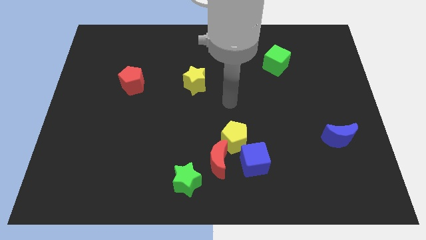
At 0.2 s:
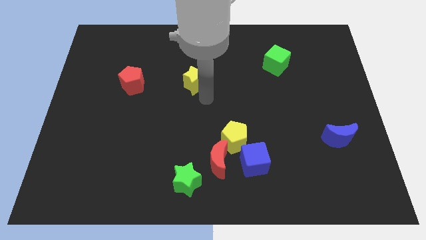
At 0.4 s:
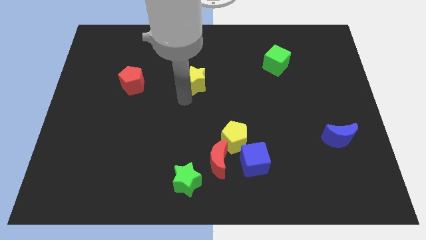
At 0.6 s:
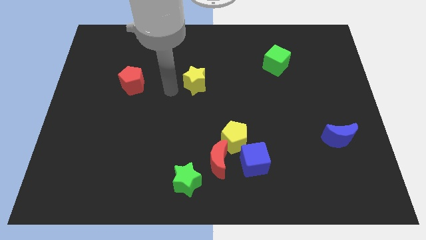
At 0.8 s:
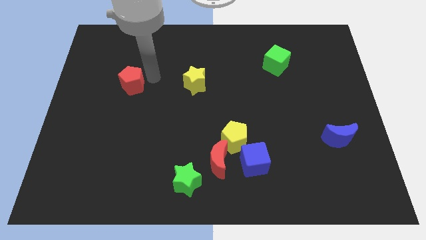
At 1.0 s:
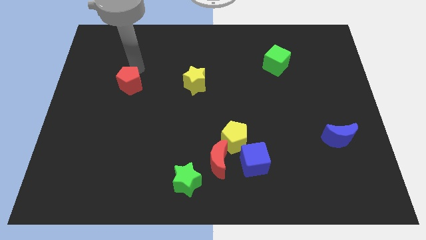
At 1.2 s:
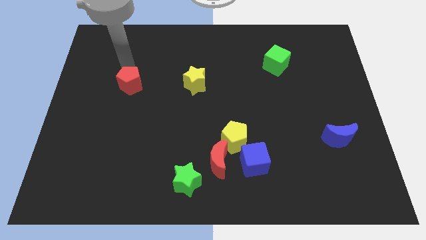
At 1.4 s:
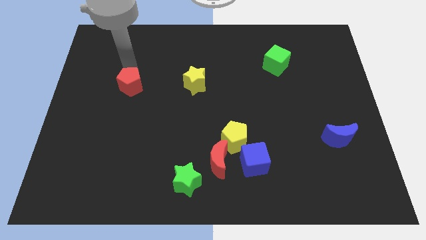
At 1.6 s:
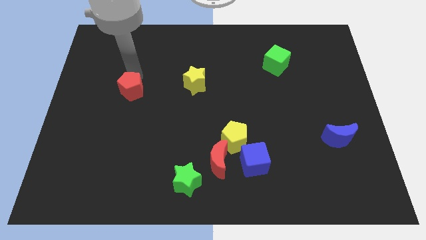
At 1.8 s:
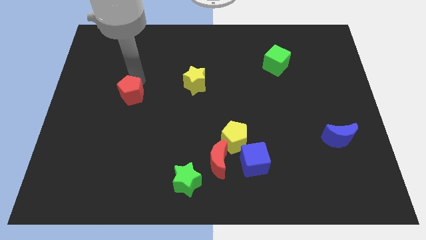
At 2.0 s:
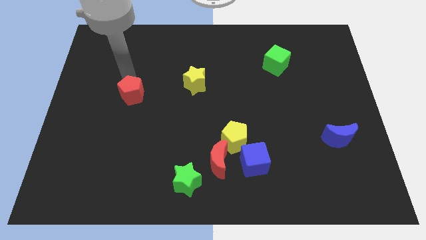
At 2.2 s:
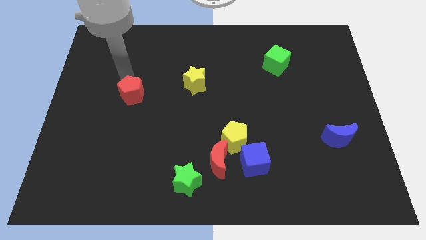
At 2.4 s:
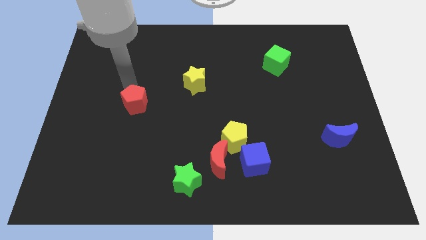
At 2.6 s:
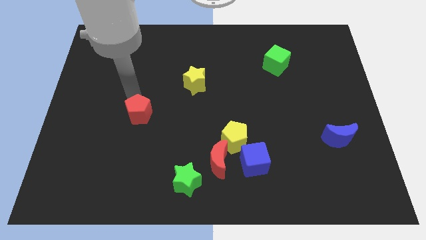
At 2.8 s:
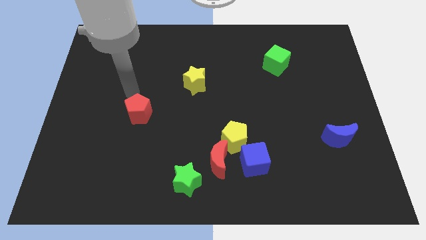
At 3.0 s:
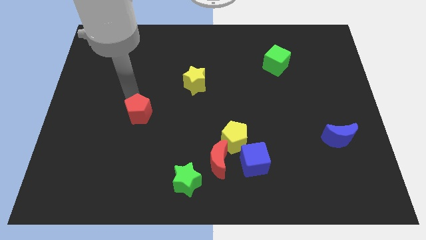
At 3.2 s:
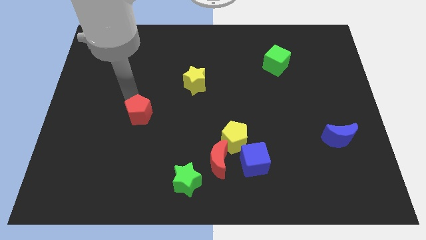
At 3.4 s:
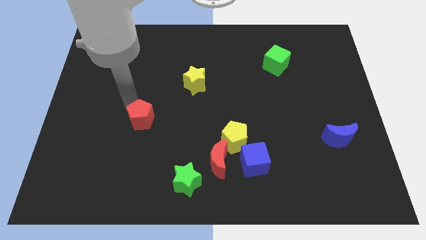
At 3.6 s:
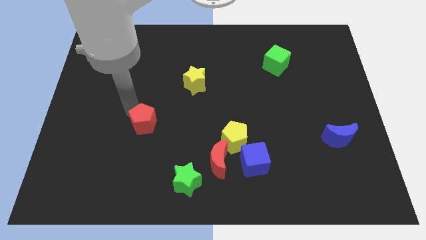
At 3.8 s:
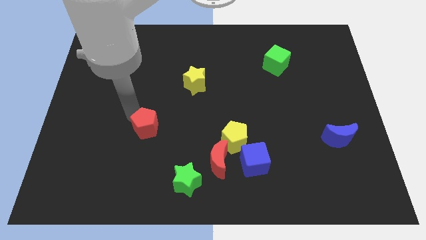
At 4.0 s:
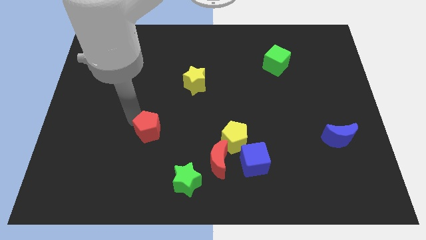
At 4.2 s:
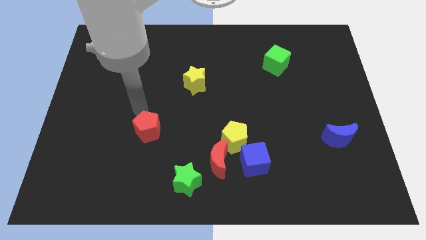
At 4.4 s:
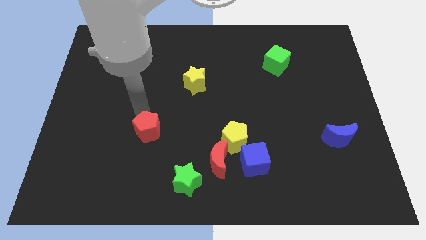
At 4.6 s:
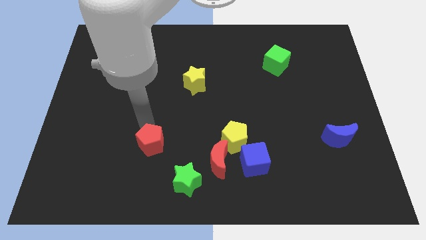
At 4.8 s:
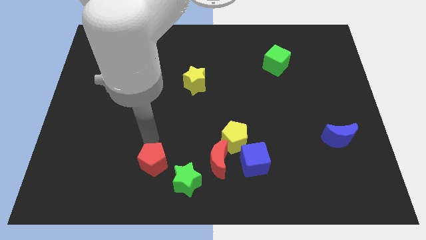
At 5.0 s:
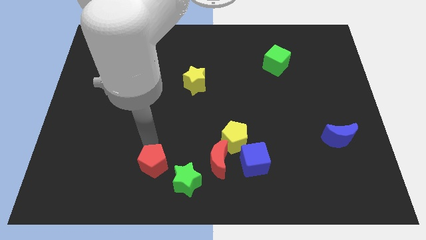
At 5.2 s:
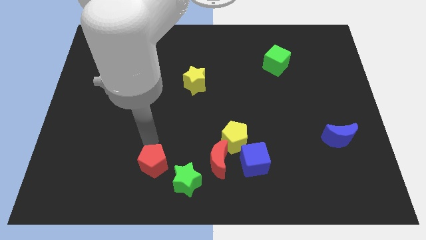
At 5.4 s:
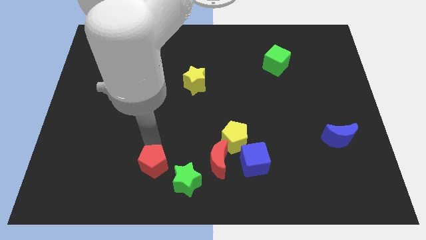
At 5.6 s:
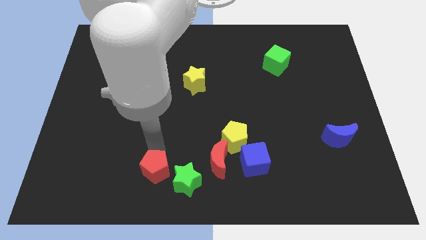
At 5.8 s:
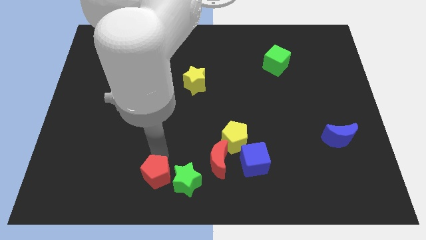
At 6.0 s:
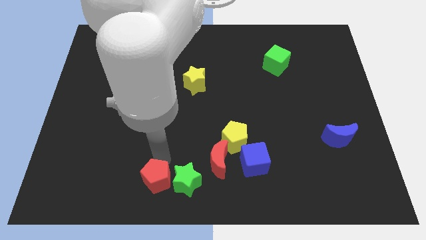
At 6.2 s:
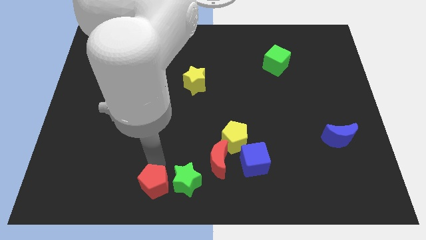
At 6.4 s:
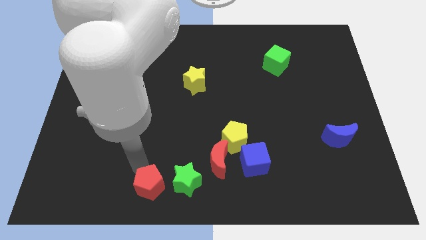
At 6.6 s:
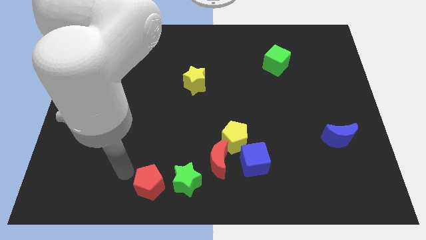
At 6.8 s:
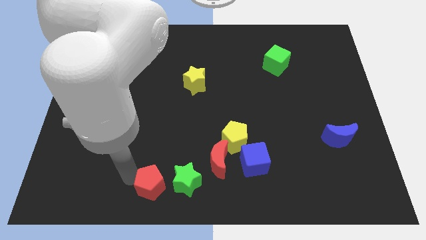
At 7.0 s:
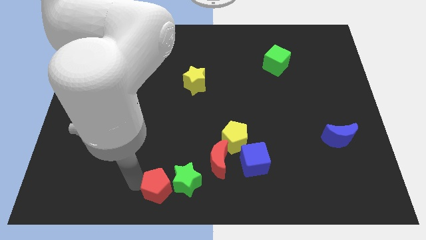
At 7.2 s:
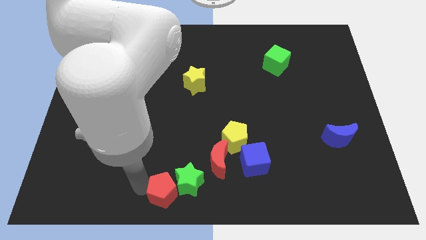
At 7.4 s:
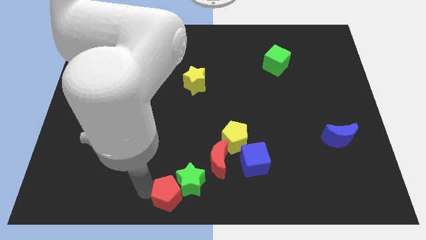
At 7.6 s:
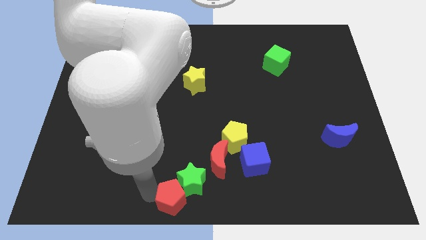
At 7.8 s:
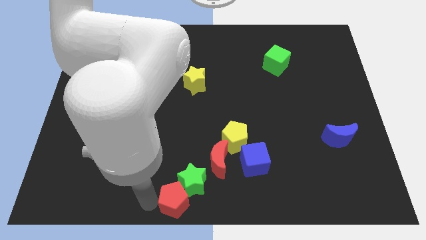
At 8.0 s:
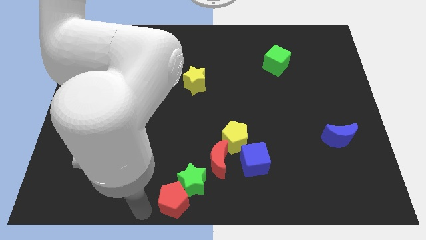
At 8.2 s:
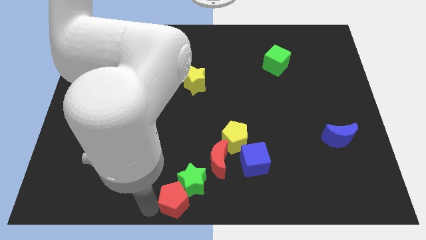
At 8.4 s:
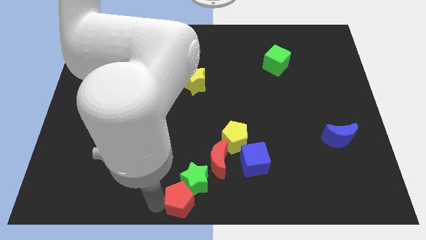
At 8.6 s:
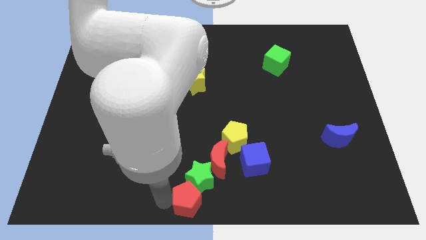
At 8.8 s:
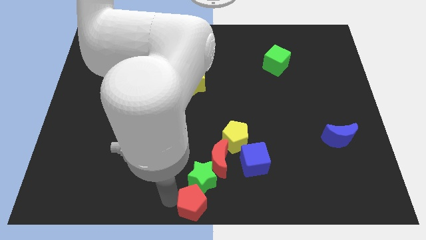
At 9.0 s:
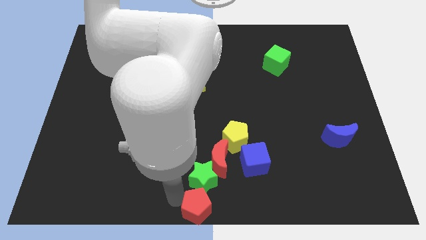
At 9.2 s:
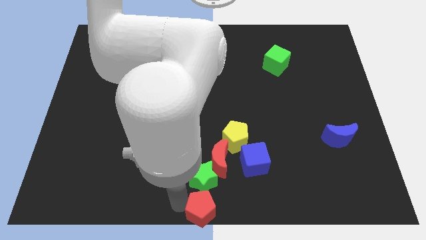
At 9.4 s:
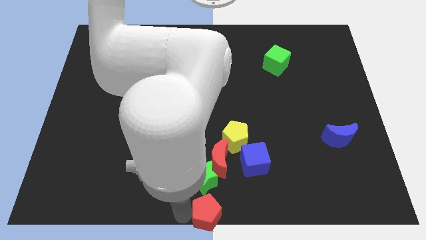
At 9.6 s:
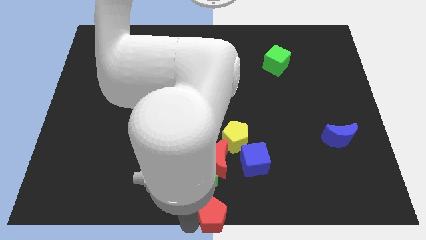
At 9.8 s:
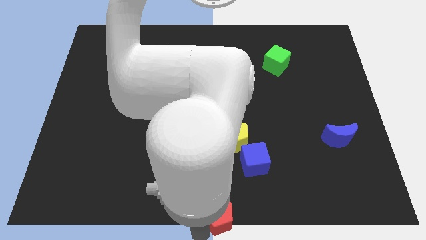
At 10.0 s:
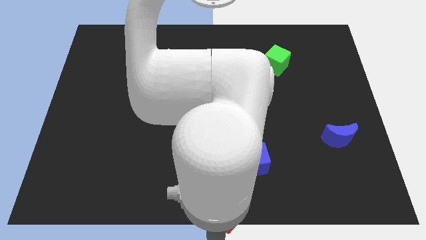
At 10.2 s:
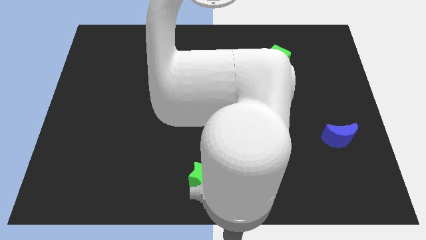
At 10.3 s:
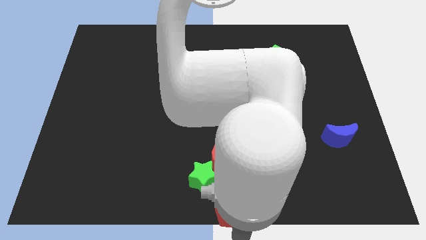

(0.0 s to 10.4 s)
move the red pentagon to the bottom left side of the blue cube
